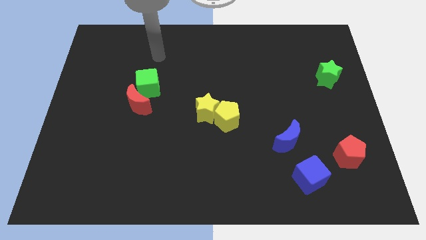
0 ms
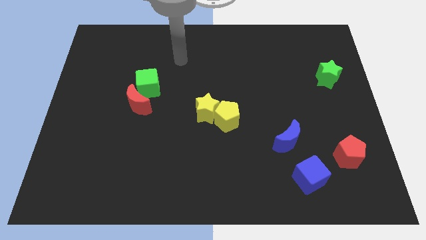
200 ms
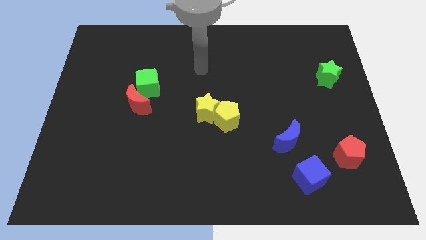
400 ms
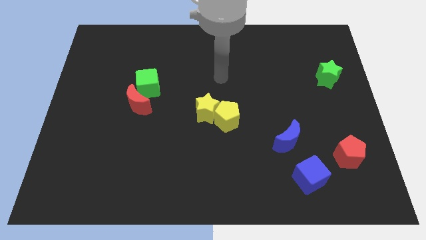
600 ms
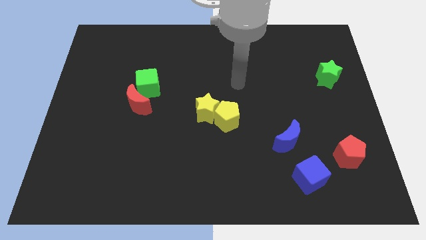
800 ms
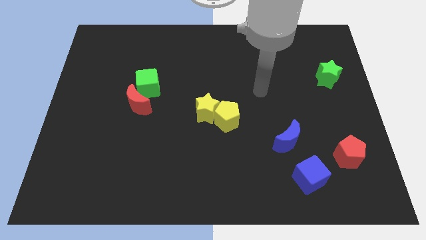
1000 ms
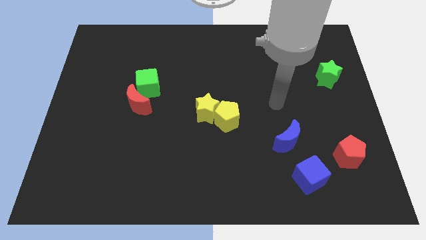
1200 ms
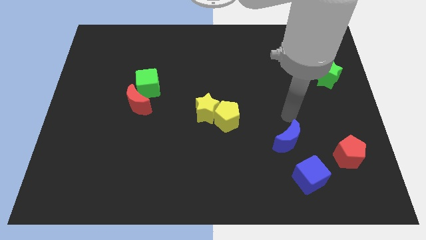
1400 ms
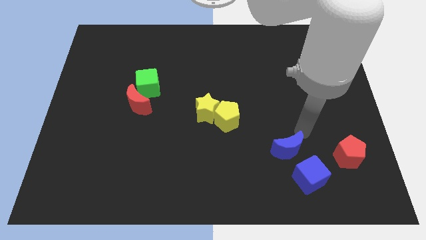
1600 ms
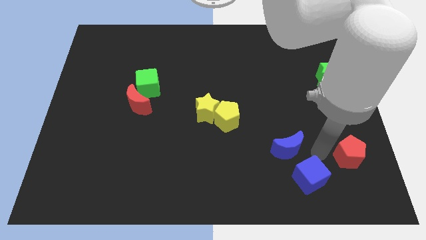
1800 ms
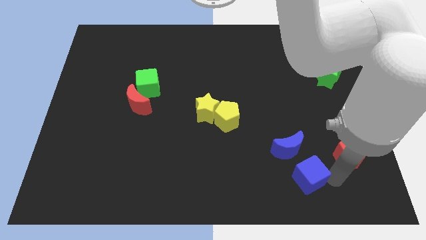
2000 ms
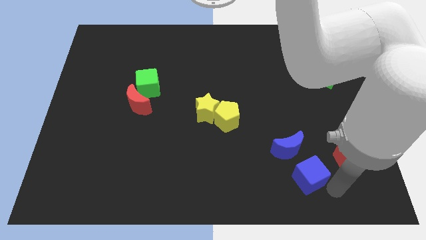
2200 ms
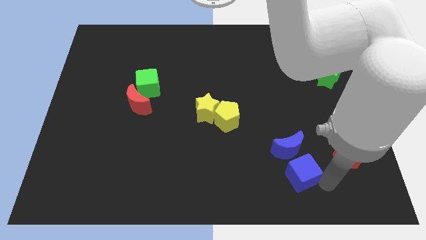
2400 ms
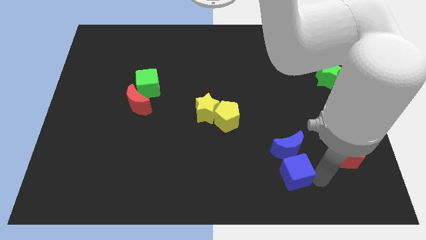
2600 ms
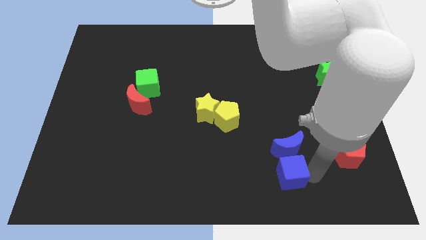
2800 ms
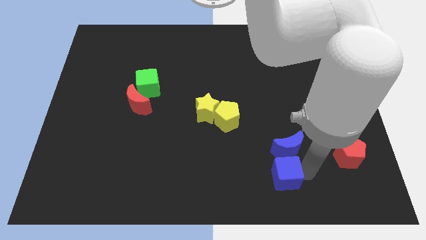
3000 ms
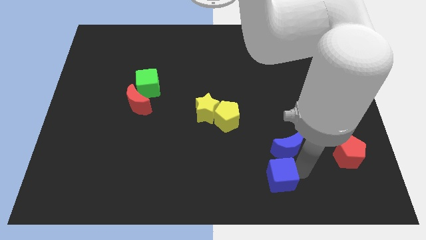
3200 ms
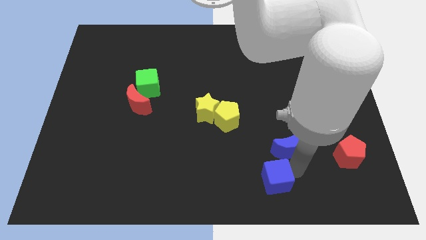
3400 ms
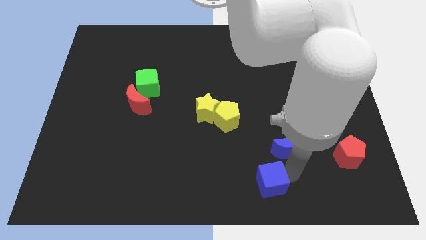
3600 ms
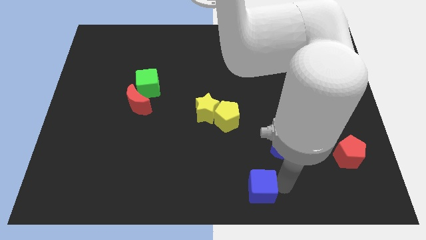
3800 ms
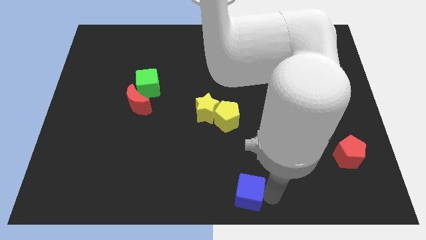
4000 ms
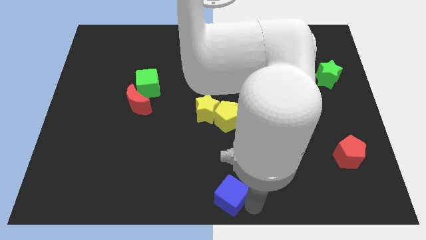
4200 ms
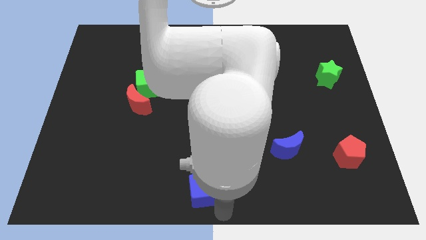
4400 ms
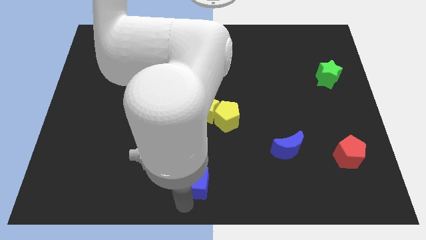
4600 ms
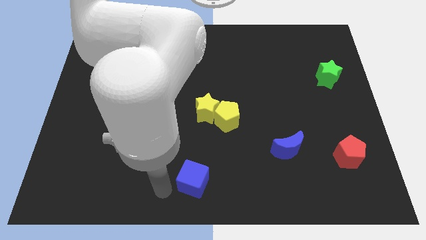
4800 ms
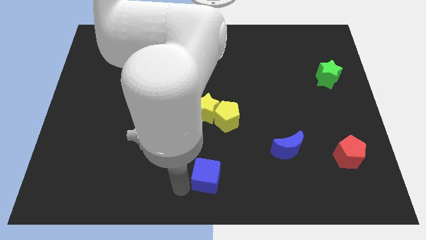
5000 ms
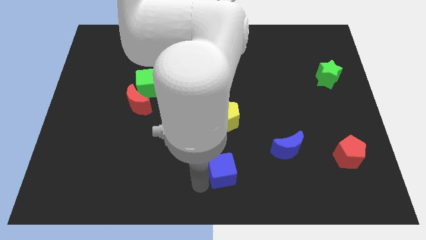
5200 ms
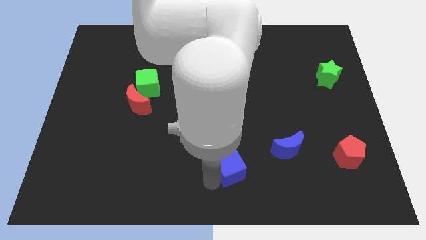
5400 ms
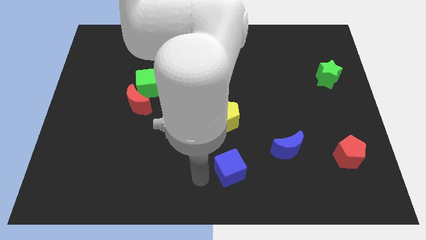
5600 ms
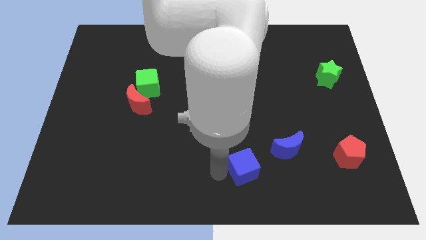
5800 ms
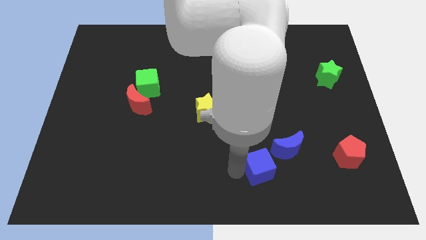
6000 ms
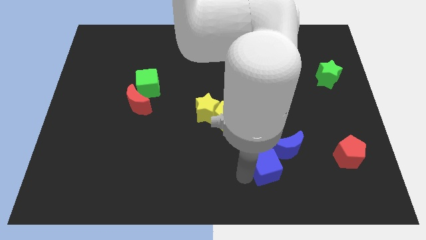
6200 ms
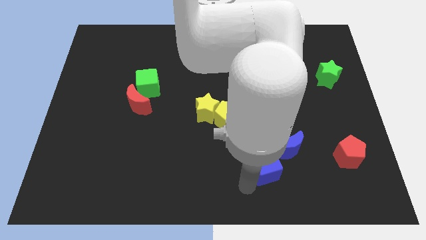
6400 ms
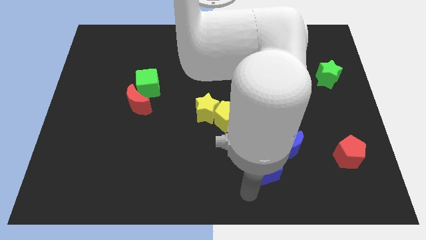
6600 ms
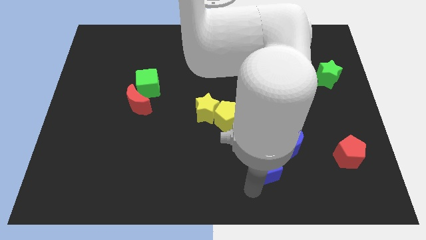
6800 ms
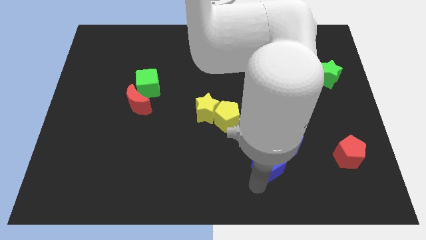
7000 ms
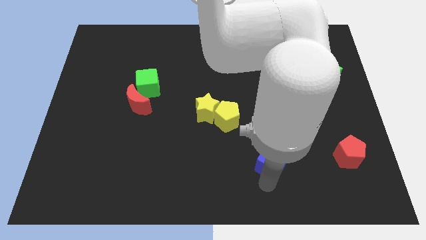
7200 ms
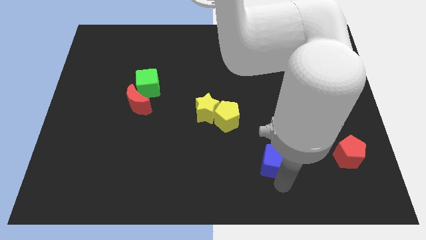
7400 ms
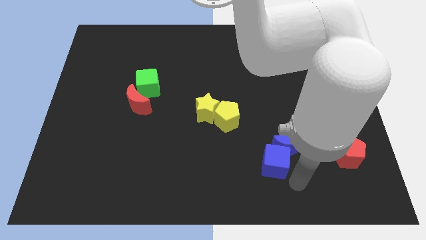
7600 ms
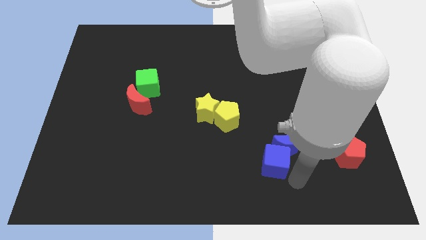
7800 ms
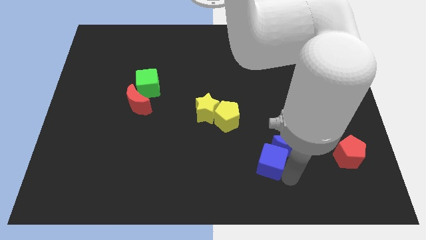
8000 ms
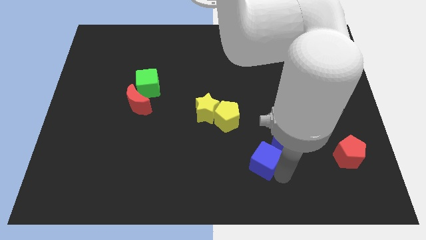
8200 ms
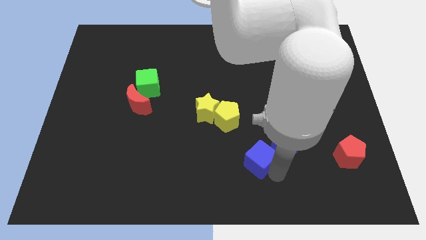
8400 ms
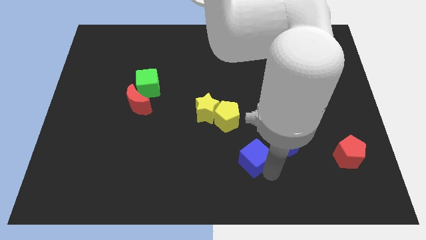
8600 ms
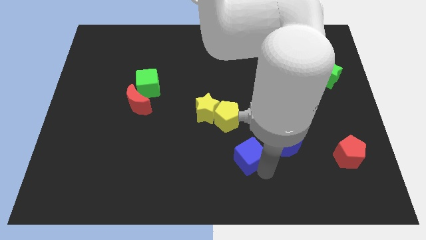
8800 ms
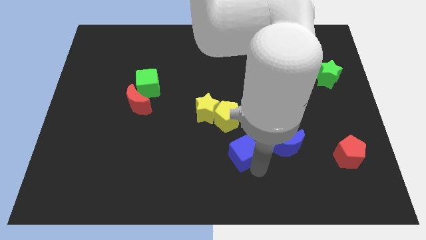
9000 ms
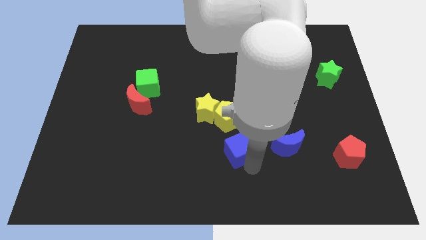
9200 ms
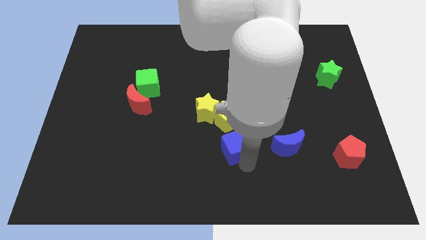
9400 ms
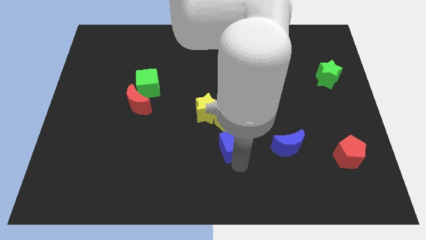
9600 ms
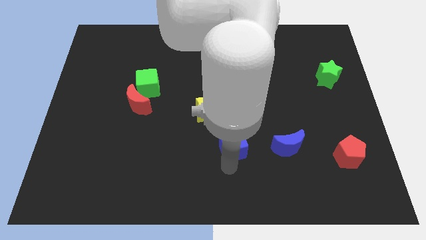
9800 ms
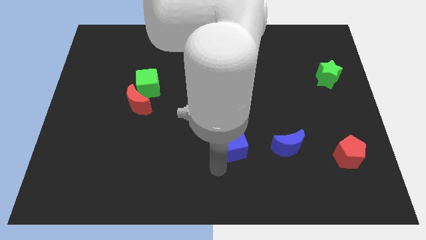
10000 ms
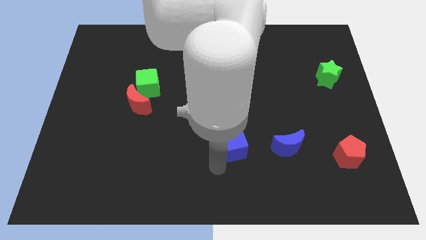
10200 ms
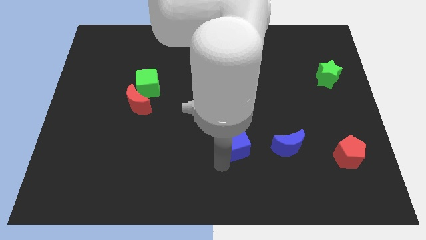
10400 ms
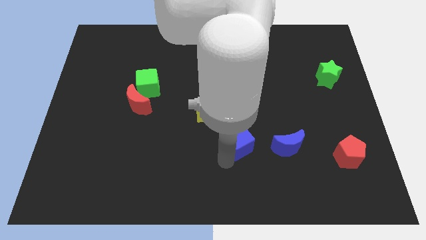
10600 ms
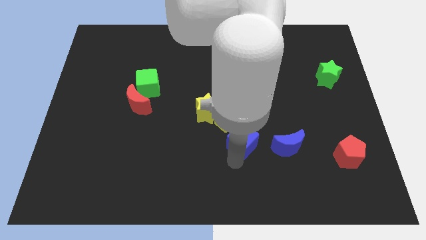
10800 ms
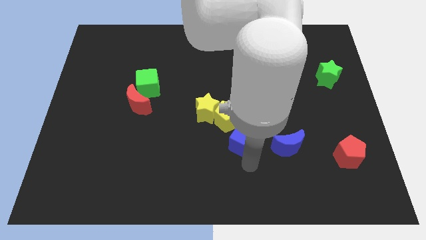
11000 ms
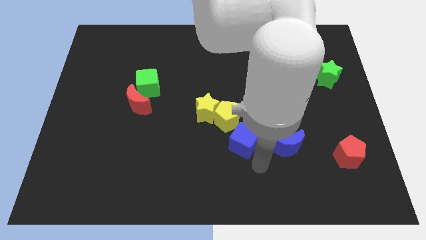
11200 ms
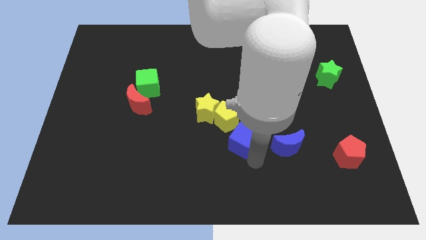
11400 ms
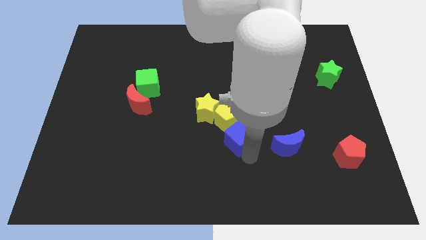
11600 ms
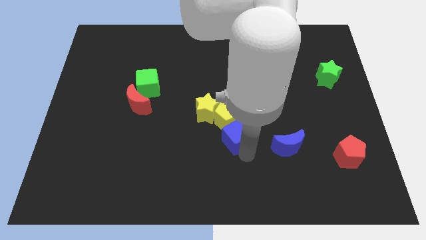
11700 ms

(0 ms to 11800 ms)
slide the blue cube to the yellow pentagon

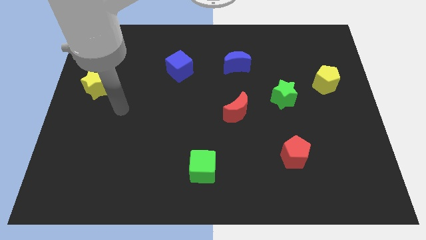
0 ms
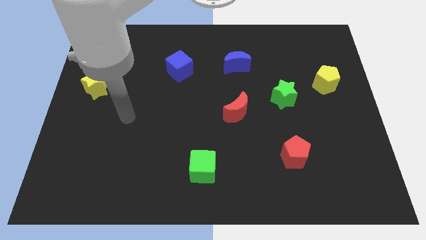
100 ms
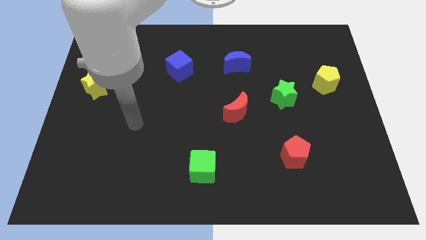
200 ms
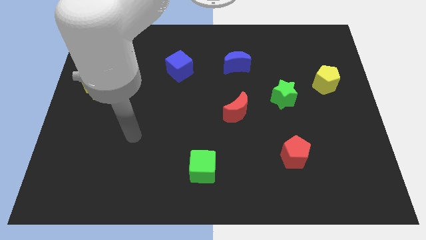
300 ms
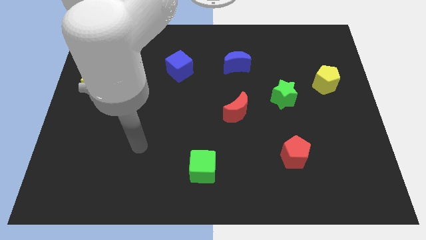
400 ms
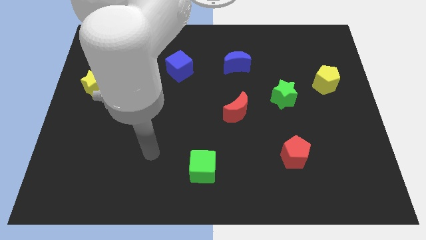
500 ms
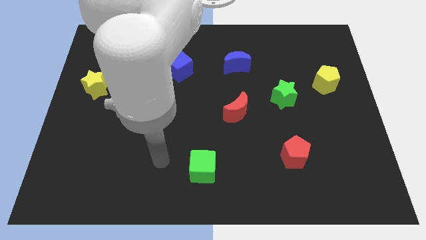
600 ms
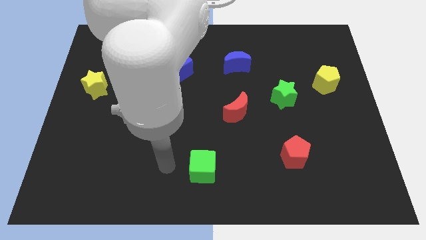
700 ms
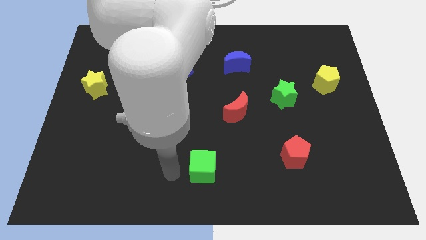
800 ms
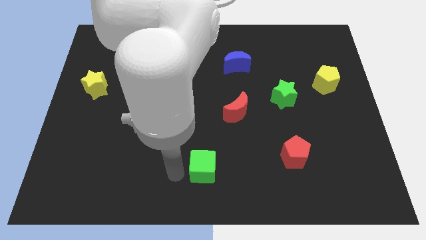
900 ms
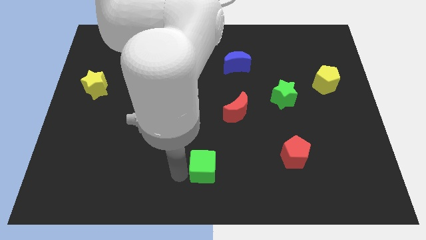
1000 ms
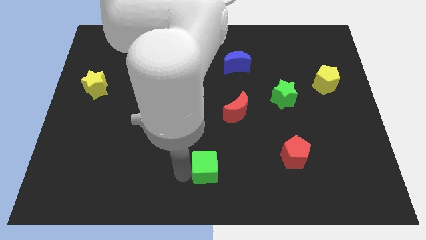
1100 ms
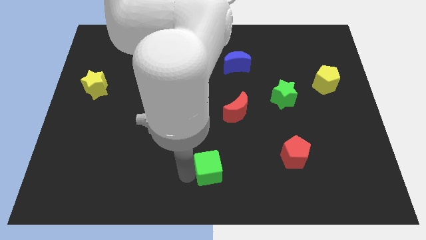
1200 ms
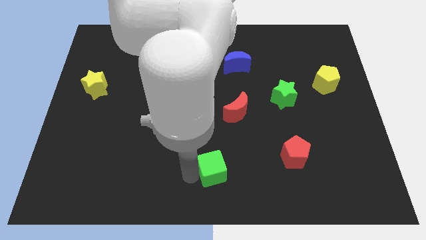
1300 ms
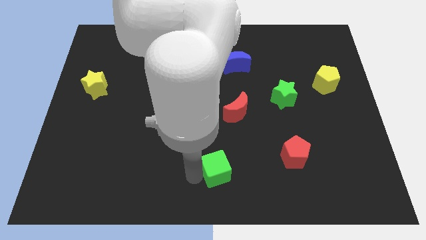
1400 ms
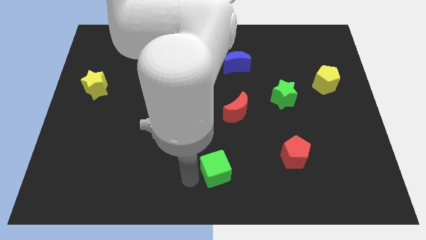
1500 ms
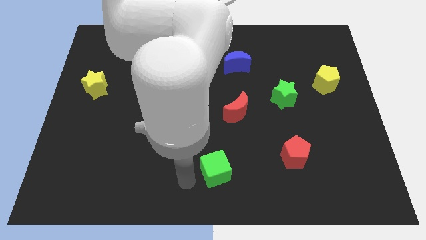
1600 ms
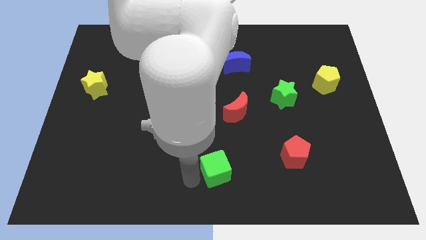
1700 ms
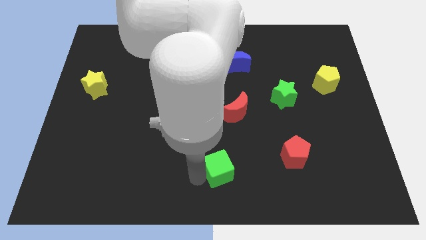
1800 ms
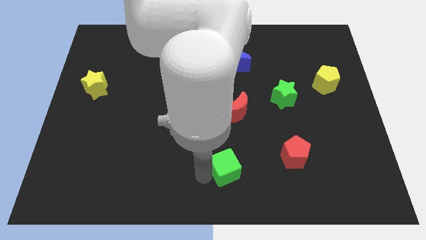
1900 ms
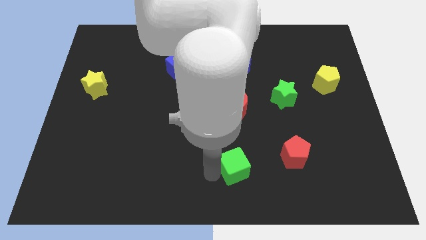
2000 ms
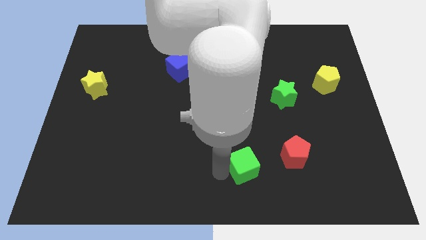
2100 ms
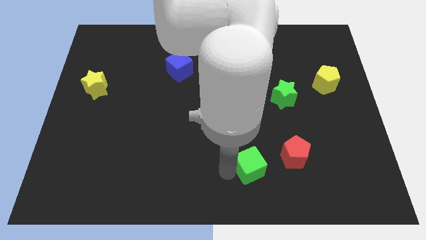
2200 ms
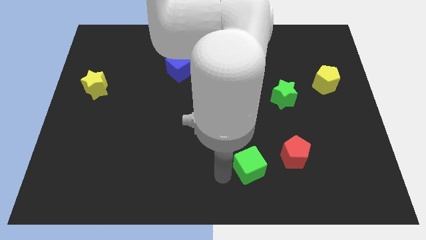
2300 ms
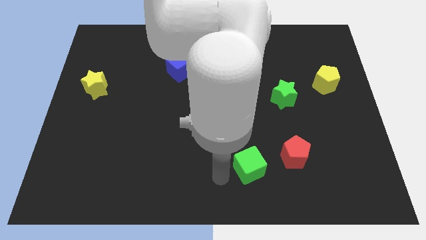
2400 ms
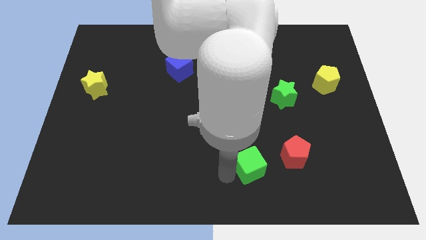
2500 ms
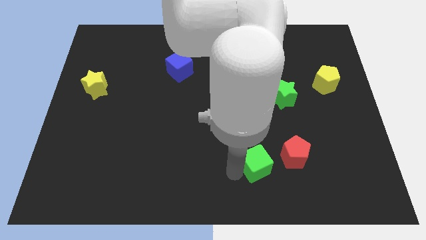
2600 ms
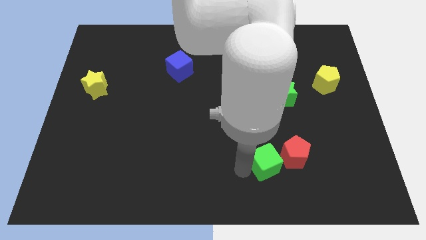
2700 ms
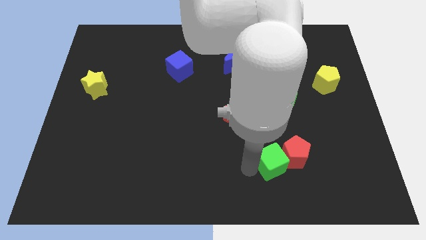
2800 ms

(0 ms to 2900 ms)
push the green cube to the red pentagon
